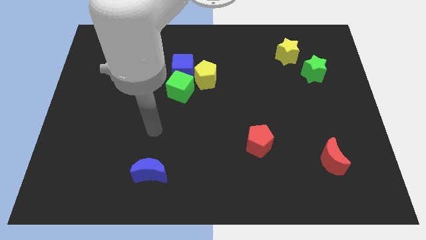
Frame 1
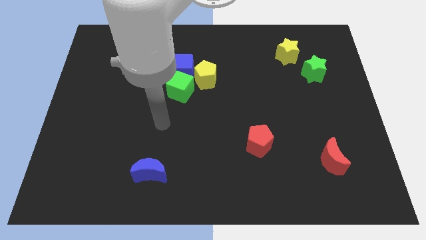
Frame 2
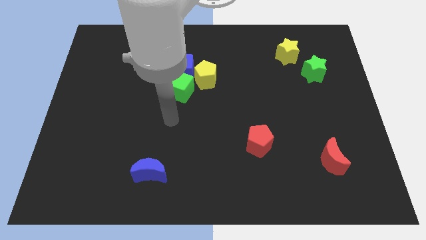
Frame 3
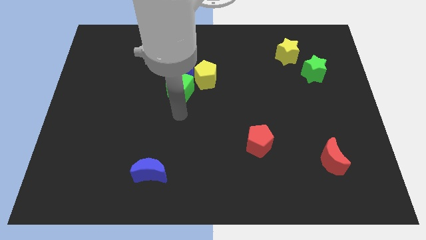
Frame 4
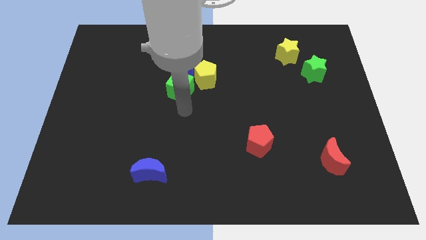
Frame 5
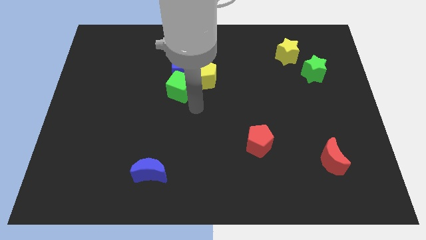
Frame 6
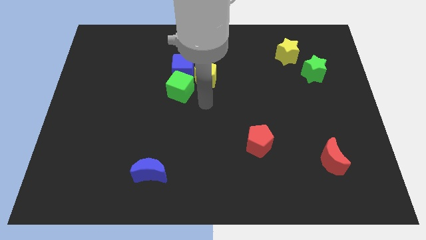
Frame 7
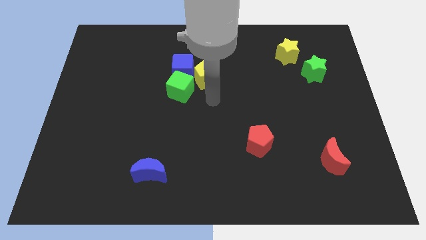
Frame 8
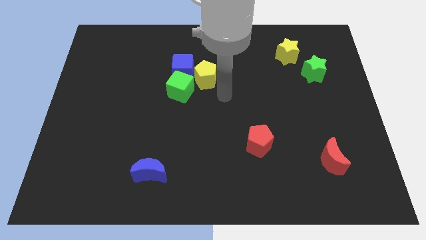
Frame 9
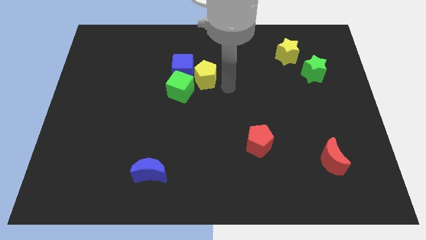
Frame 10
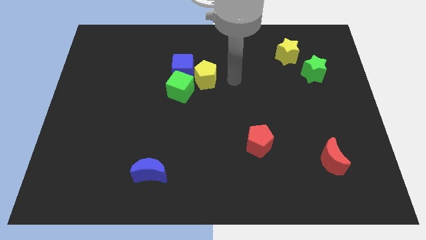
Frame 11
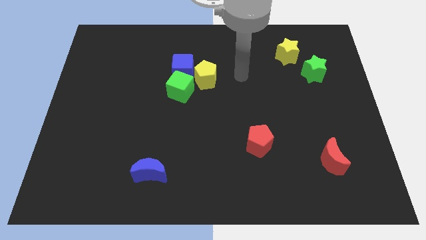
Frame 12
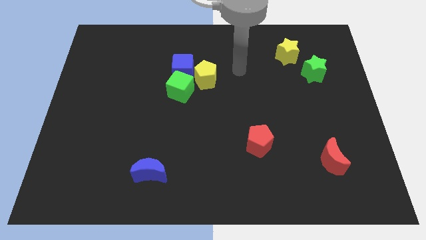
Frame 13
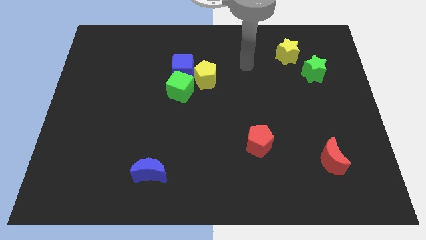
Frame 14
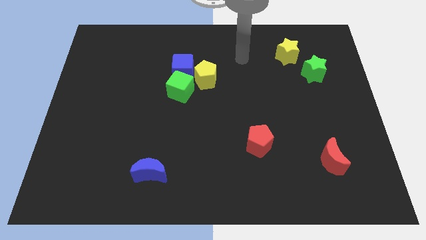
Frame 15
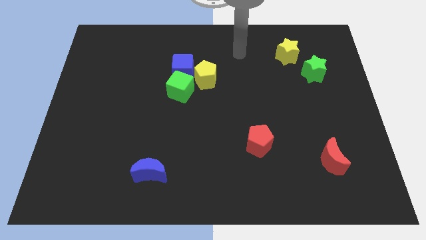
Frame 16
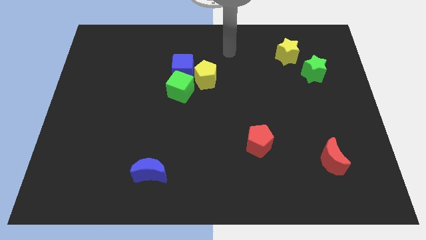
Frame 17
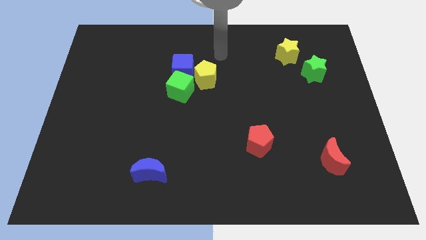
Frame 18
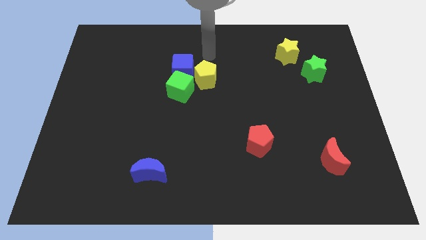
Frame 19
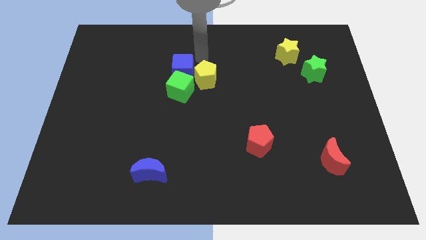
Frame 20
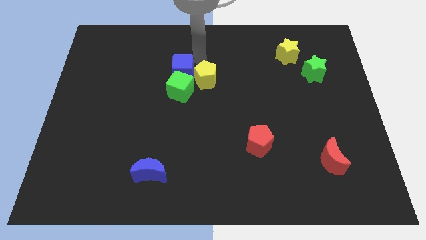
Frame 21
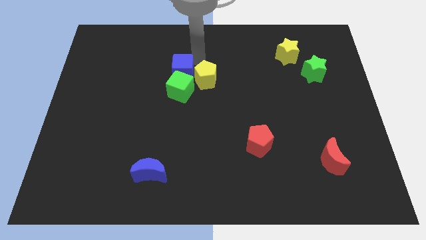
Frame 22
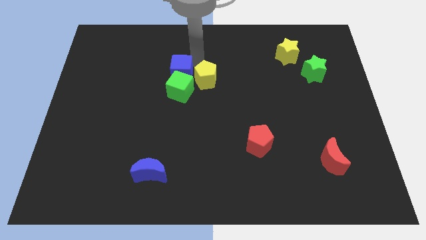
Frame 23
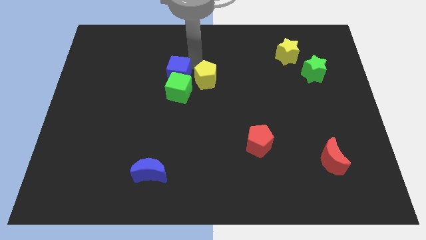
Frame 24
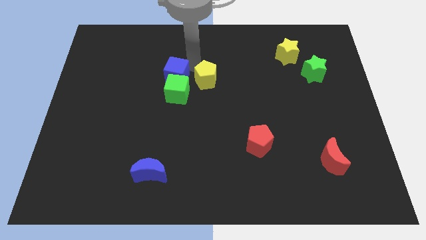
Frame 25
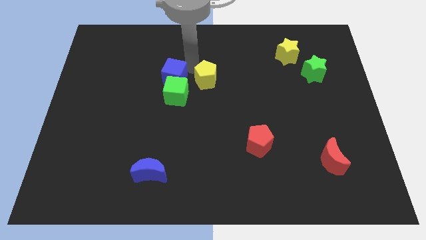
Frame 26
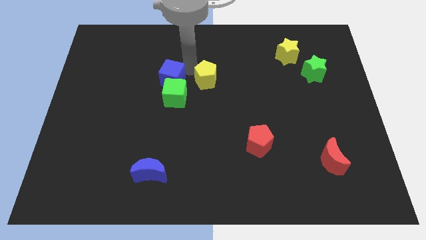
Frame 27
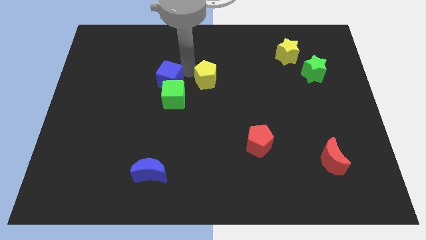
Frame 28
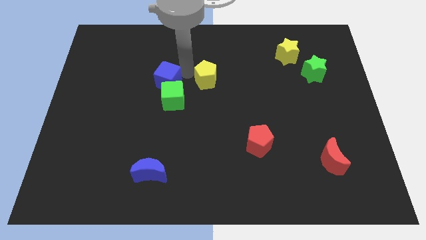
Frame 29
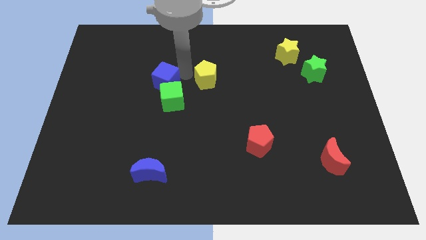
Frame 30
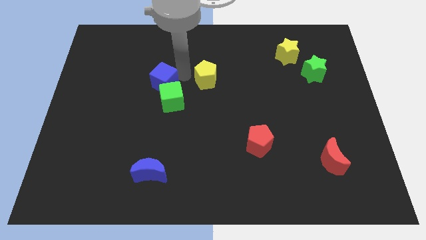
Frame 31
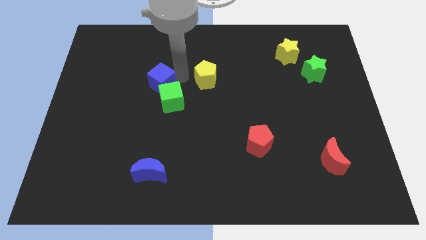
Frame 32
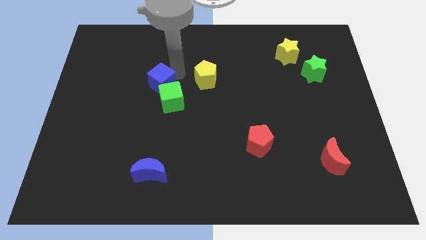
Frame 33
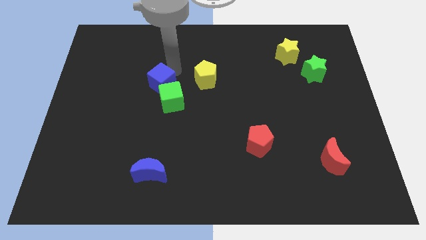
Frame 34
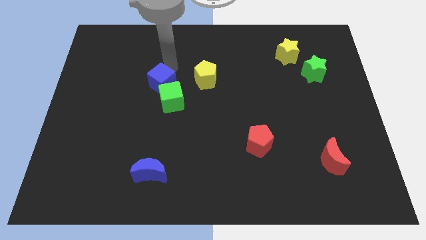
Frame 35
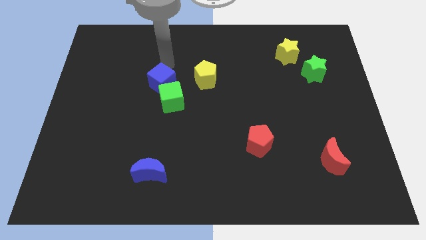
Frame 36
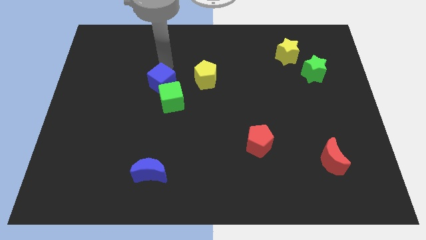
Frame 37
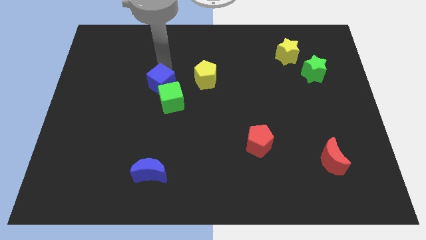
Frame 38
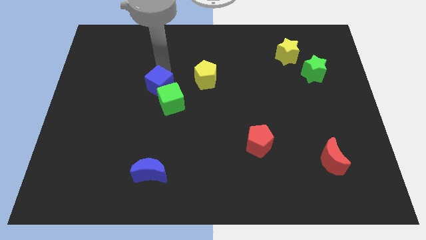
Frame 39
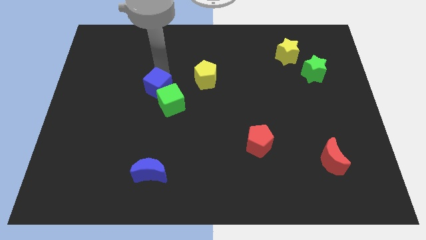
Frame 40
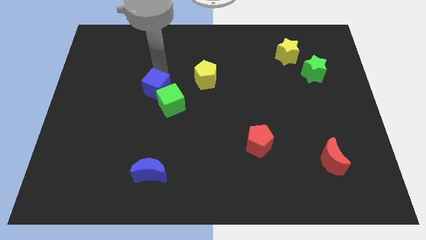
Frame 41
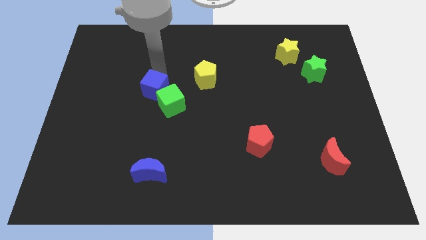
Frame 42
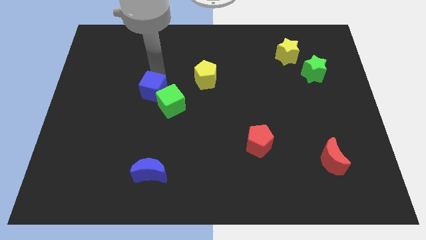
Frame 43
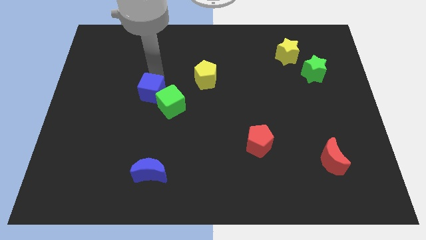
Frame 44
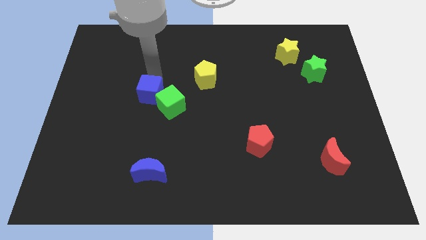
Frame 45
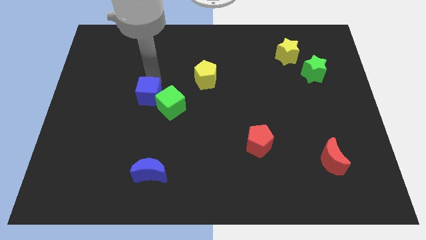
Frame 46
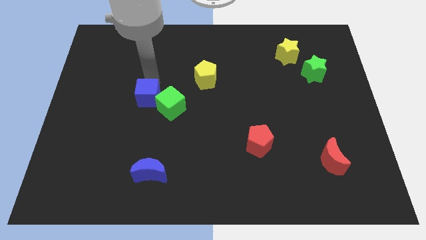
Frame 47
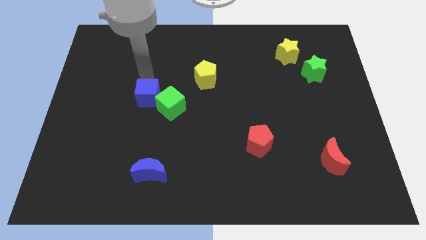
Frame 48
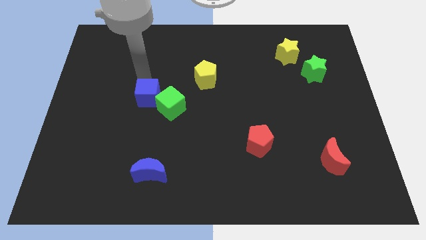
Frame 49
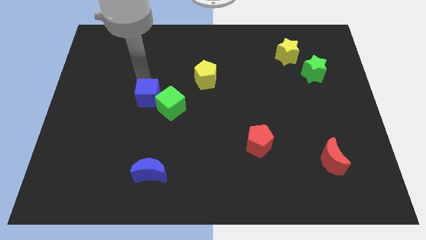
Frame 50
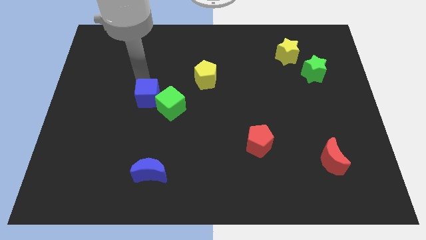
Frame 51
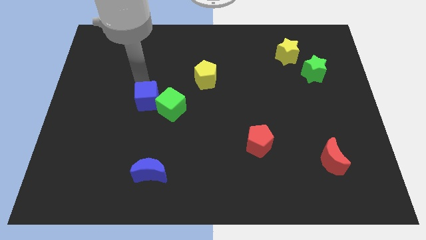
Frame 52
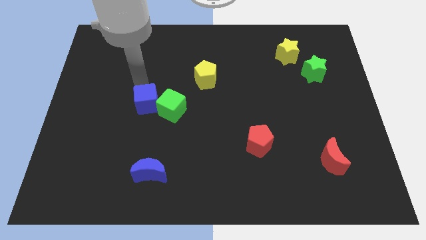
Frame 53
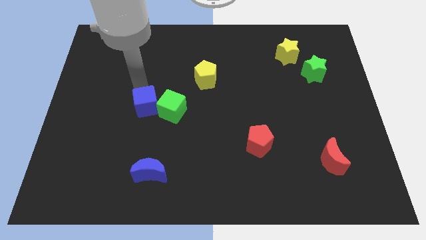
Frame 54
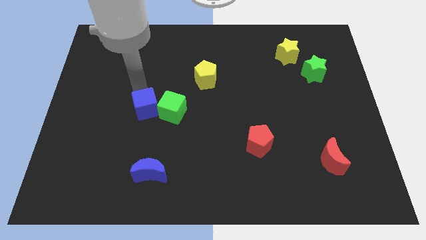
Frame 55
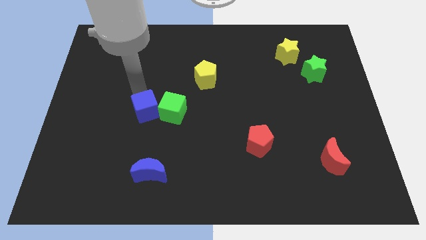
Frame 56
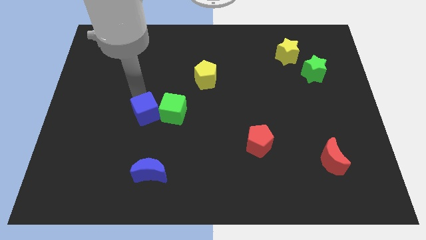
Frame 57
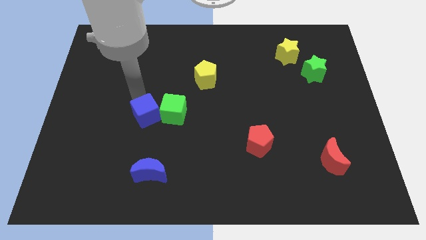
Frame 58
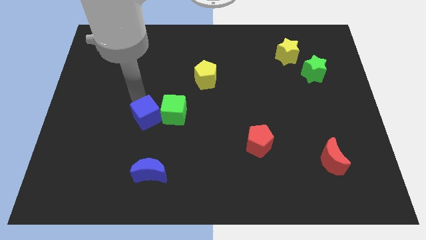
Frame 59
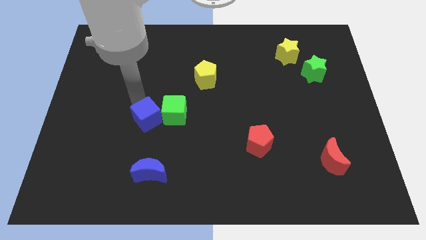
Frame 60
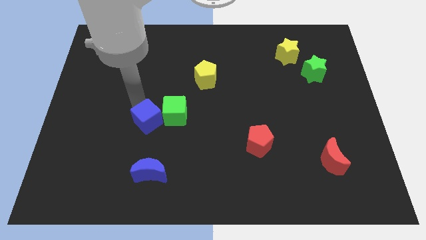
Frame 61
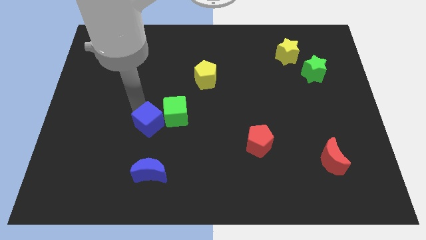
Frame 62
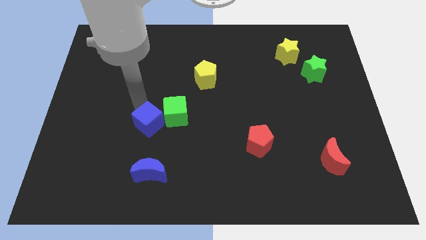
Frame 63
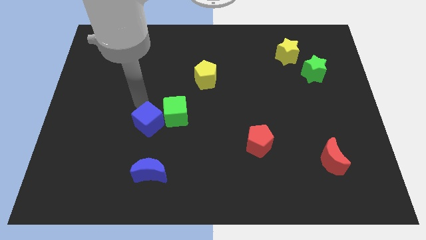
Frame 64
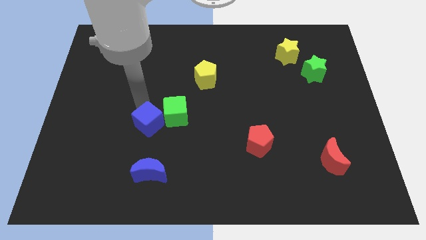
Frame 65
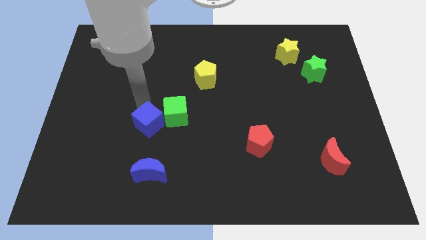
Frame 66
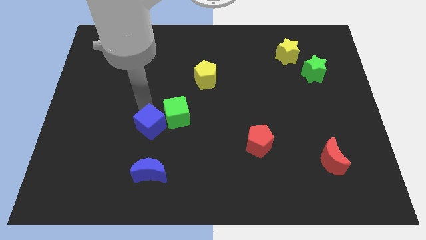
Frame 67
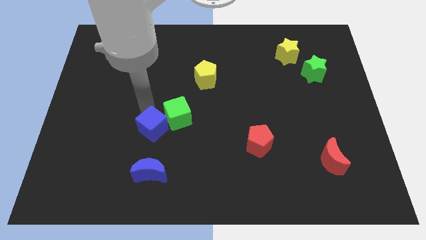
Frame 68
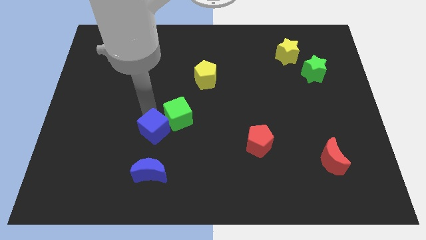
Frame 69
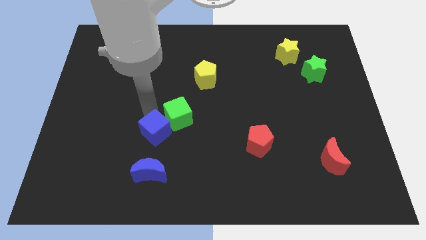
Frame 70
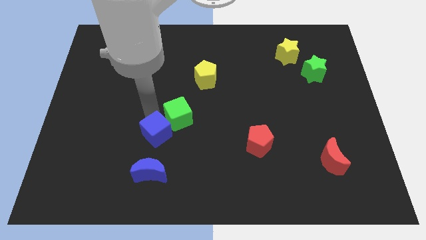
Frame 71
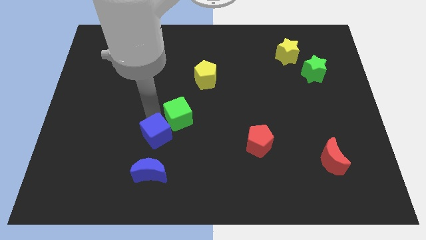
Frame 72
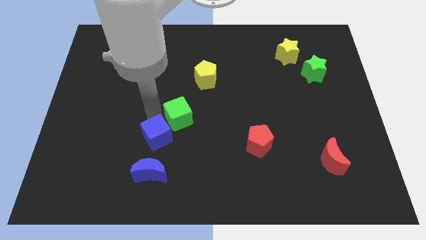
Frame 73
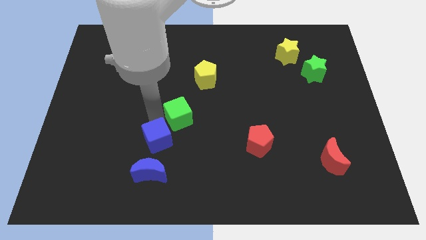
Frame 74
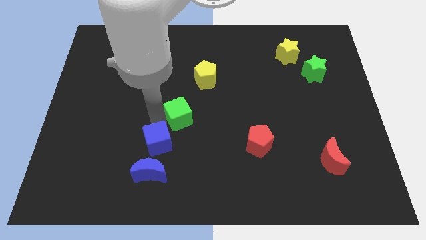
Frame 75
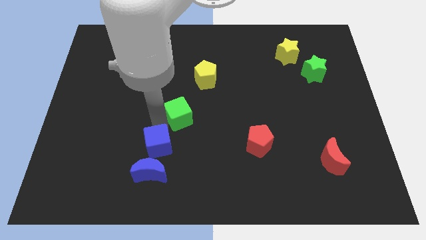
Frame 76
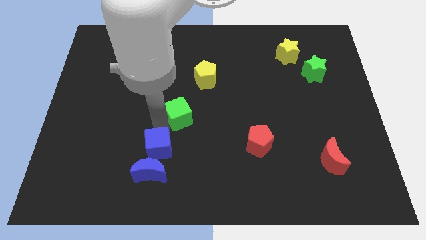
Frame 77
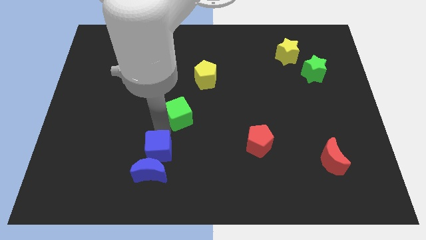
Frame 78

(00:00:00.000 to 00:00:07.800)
push the blue cube next to the blue moon
